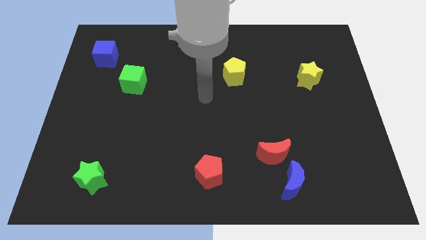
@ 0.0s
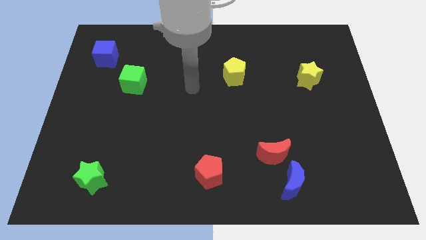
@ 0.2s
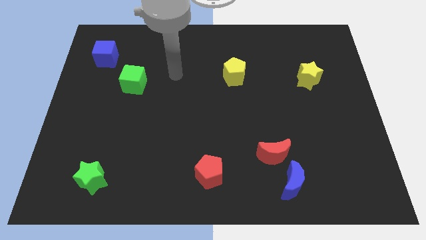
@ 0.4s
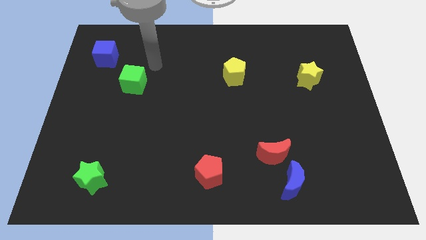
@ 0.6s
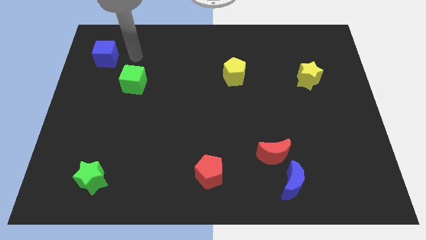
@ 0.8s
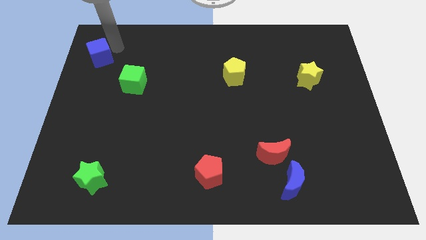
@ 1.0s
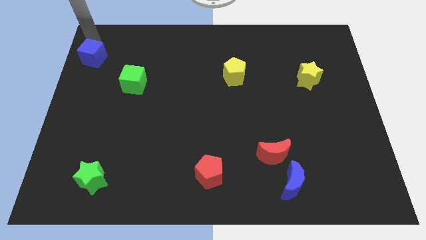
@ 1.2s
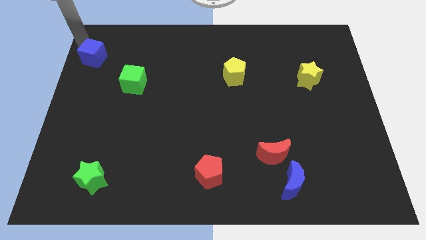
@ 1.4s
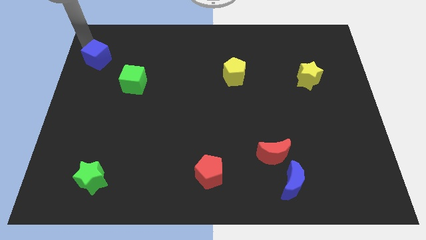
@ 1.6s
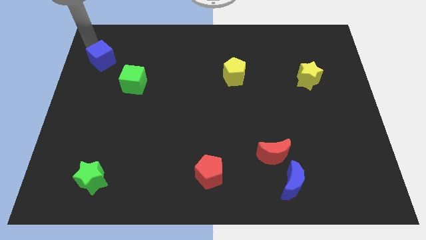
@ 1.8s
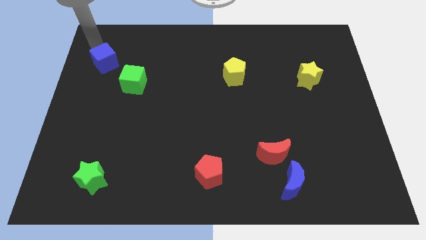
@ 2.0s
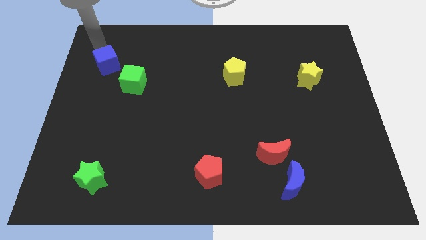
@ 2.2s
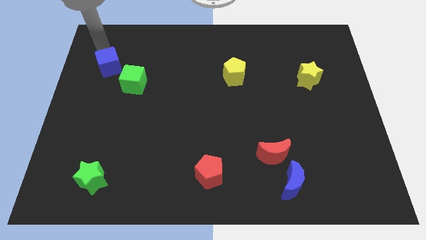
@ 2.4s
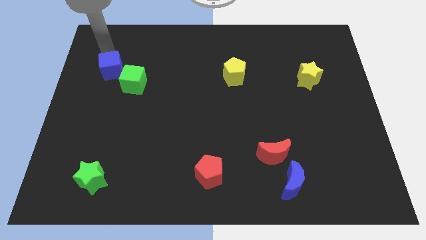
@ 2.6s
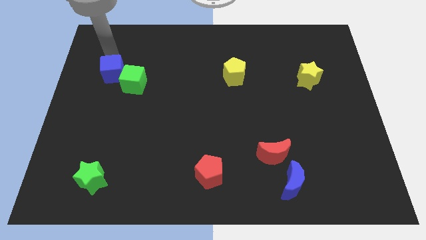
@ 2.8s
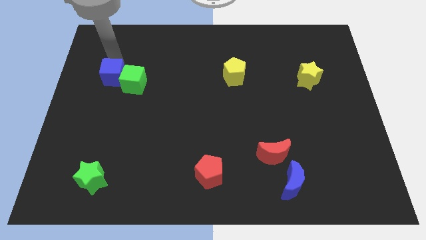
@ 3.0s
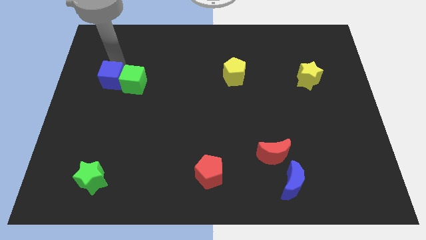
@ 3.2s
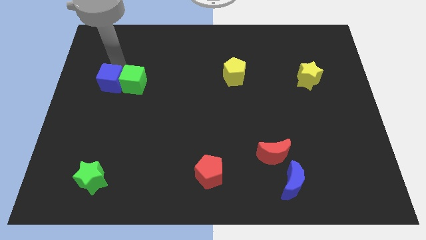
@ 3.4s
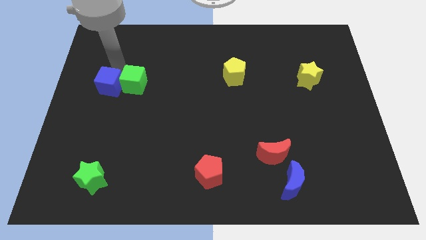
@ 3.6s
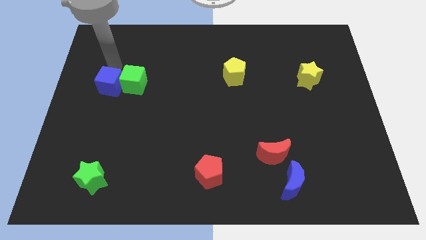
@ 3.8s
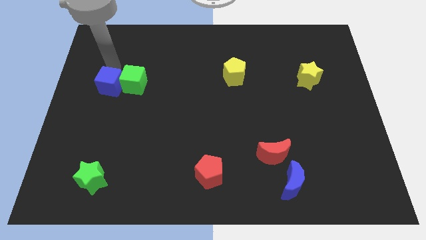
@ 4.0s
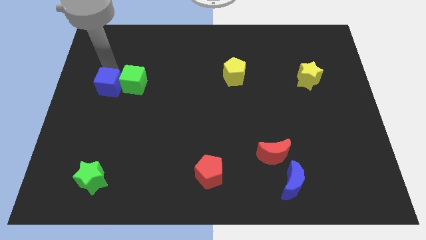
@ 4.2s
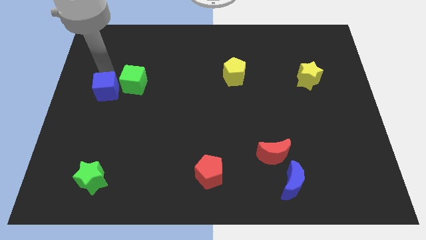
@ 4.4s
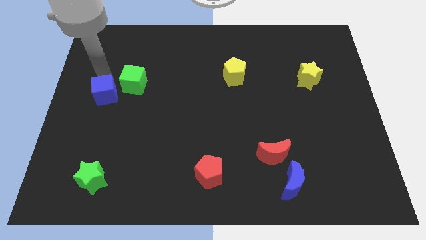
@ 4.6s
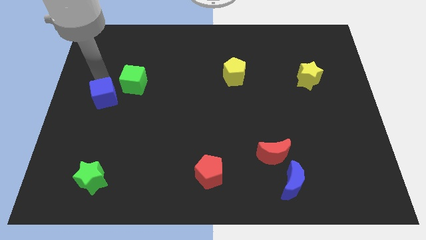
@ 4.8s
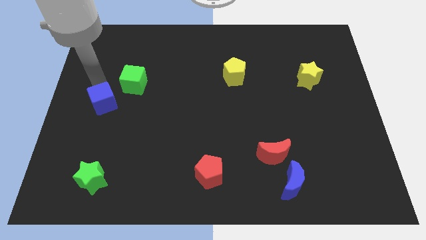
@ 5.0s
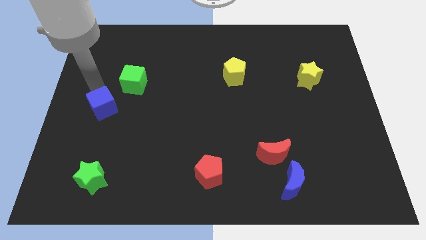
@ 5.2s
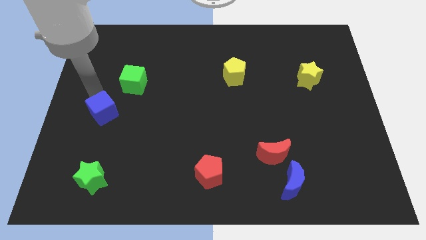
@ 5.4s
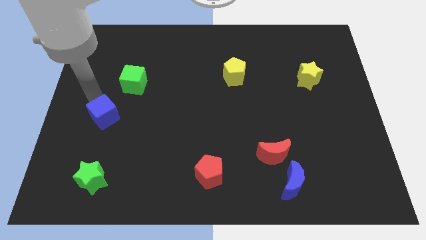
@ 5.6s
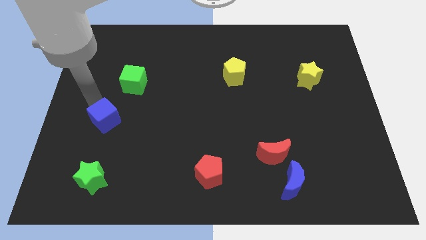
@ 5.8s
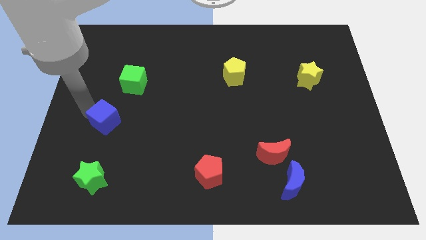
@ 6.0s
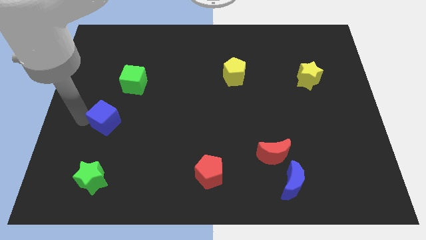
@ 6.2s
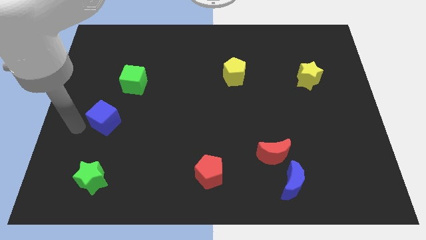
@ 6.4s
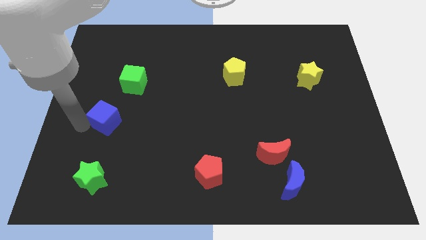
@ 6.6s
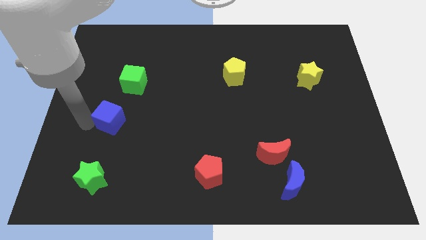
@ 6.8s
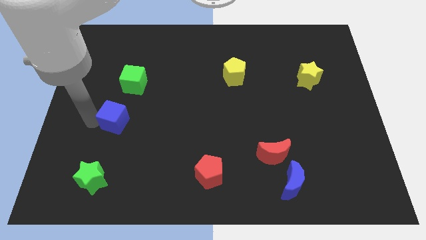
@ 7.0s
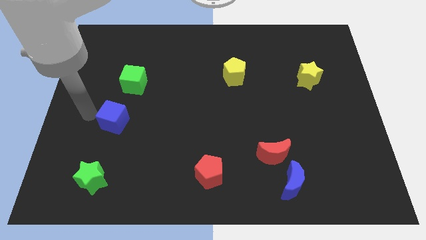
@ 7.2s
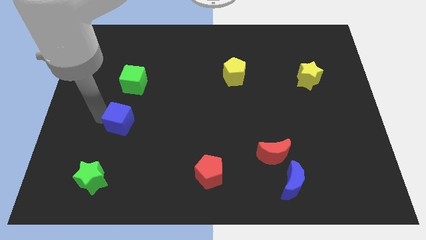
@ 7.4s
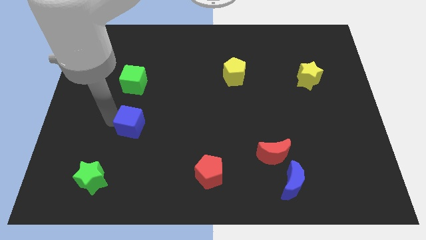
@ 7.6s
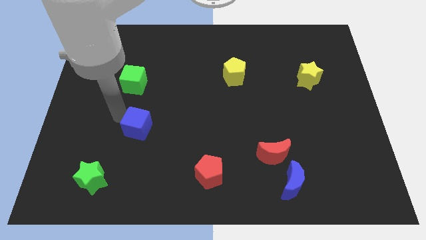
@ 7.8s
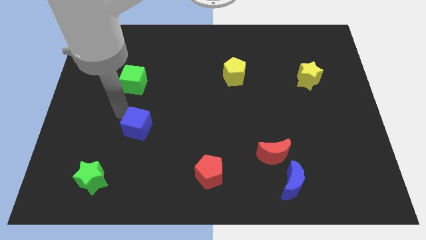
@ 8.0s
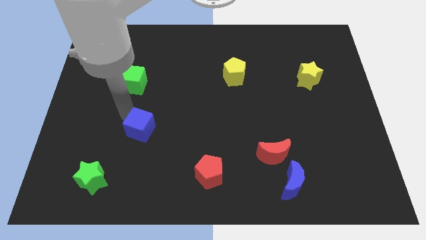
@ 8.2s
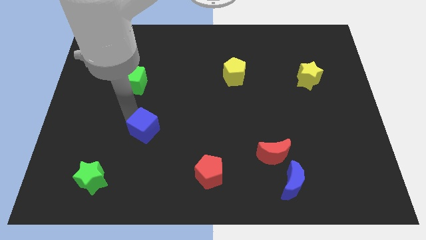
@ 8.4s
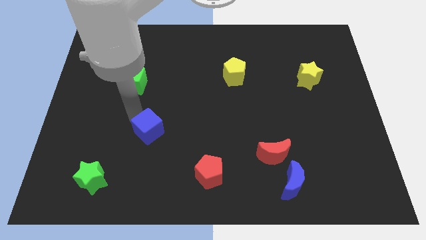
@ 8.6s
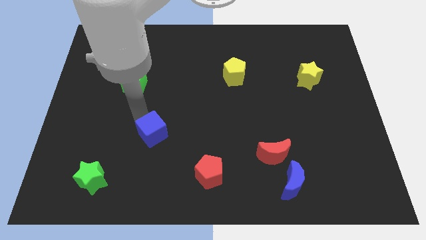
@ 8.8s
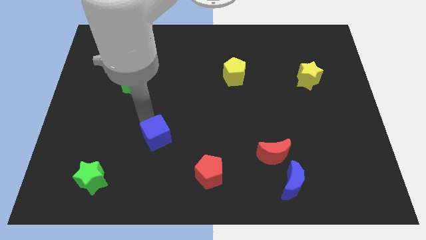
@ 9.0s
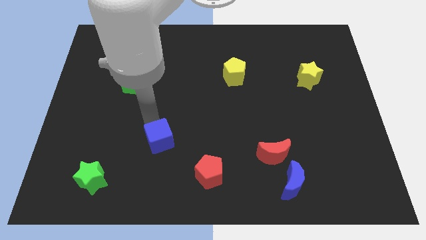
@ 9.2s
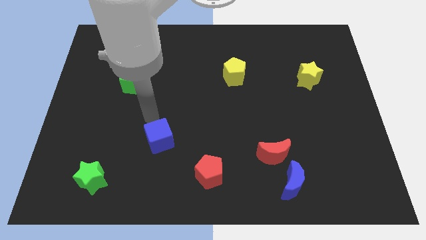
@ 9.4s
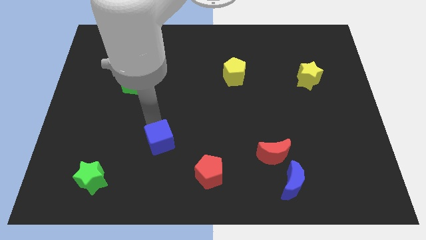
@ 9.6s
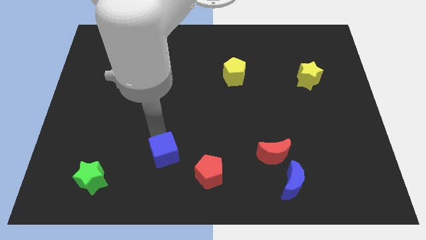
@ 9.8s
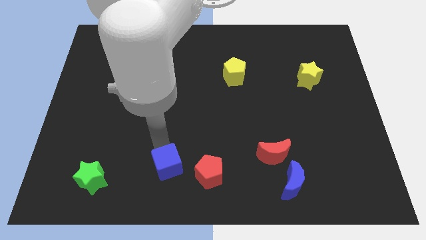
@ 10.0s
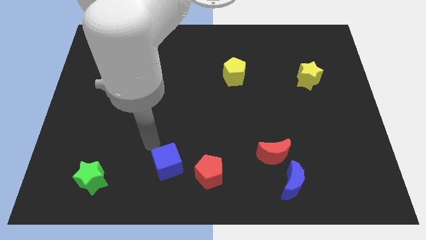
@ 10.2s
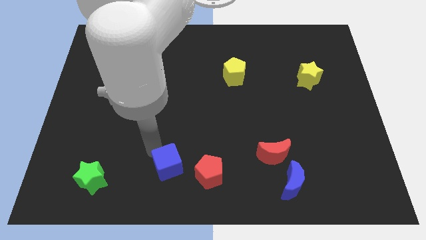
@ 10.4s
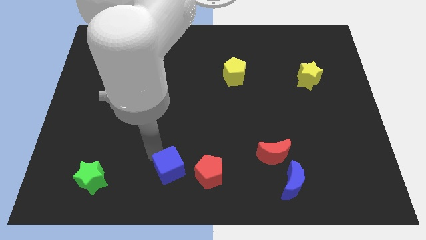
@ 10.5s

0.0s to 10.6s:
move the blue cube to the bottom side

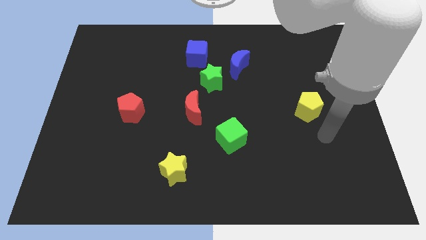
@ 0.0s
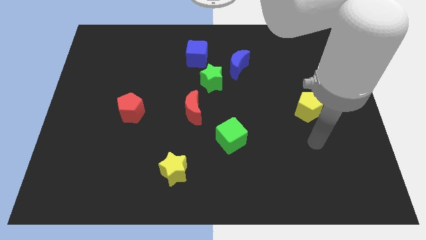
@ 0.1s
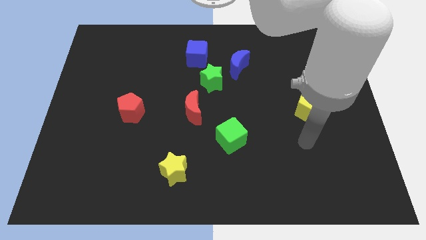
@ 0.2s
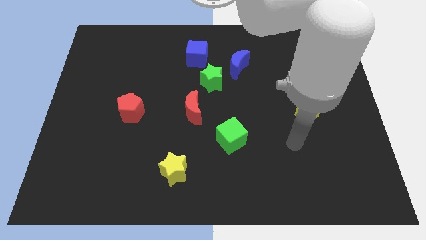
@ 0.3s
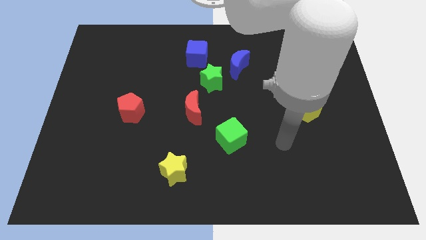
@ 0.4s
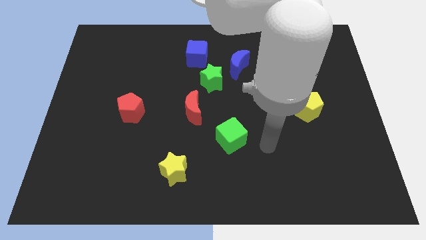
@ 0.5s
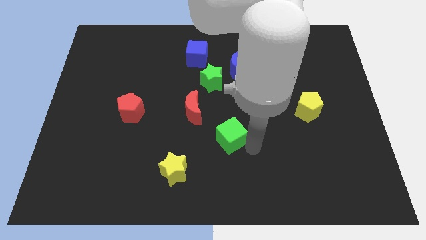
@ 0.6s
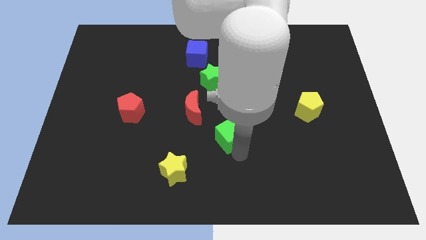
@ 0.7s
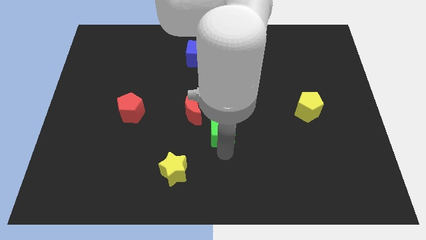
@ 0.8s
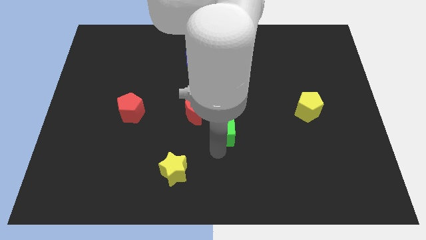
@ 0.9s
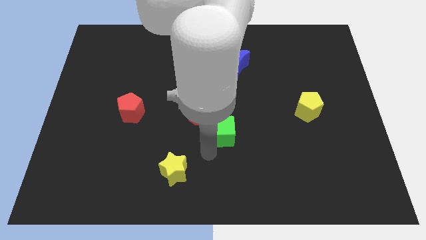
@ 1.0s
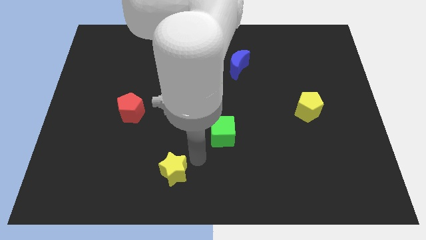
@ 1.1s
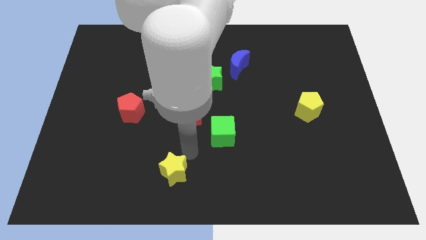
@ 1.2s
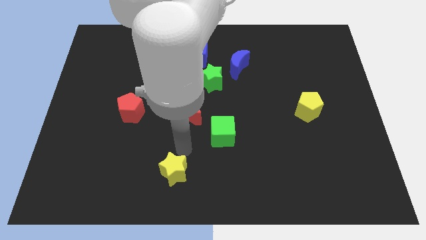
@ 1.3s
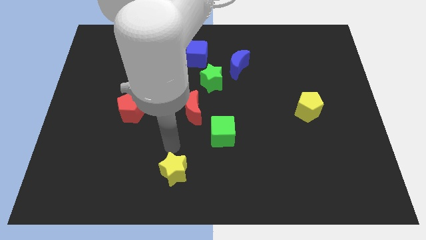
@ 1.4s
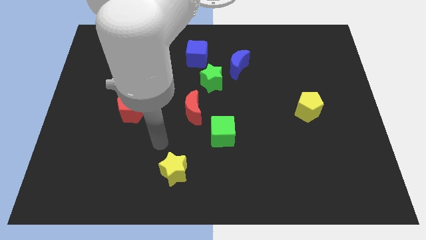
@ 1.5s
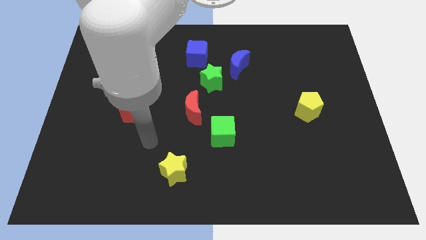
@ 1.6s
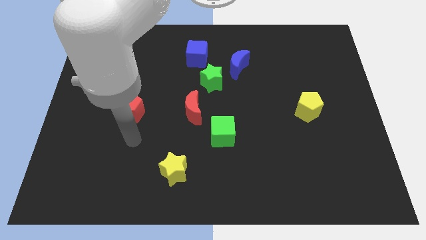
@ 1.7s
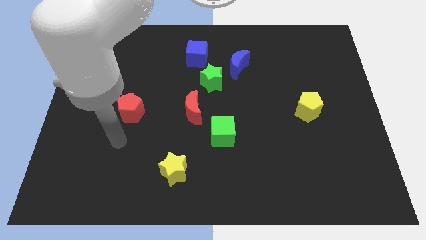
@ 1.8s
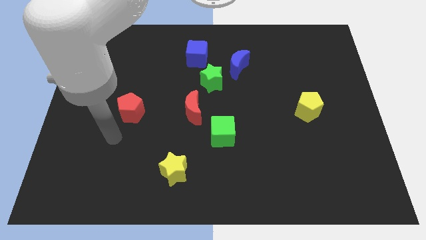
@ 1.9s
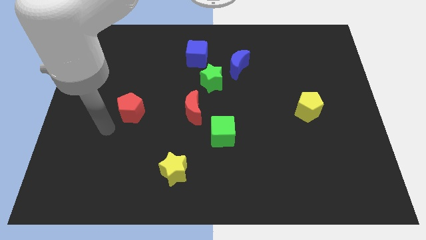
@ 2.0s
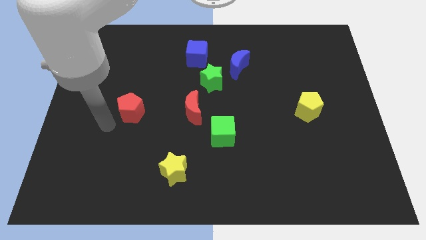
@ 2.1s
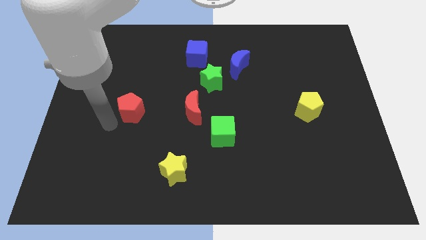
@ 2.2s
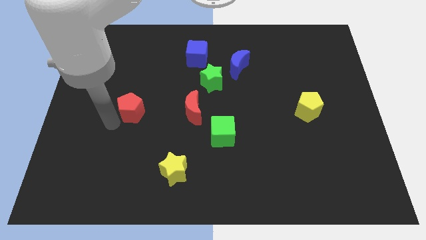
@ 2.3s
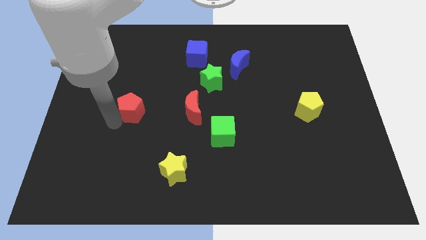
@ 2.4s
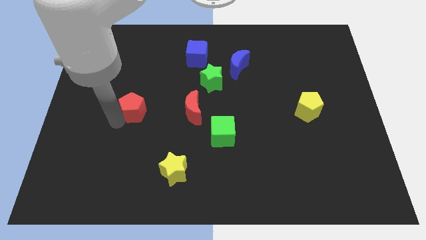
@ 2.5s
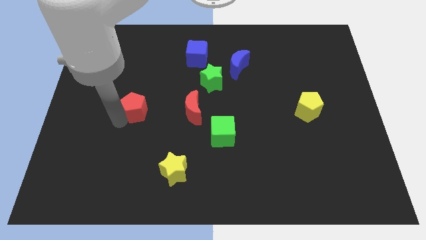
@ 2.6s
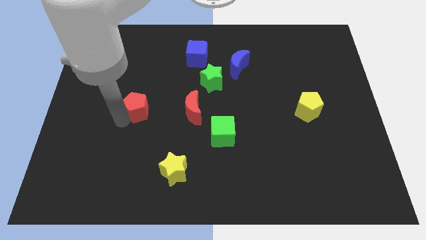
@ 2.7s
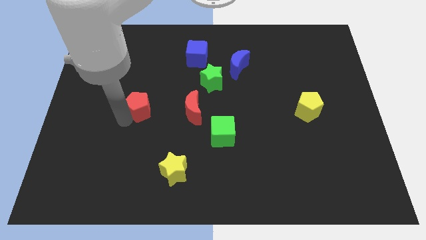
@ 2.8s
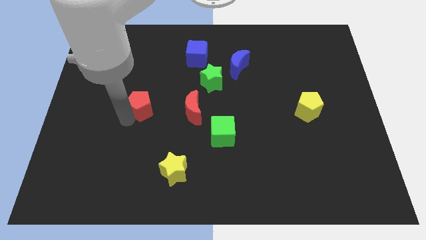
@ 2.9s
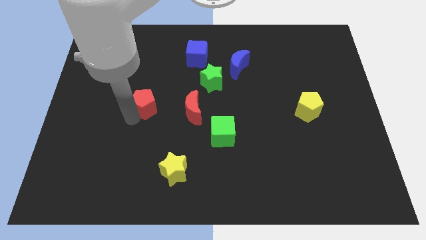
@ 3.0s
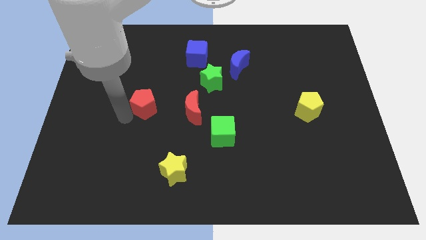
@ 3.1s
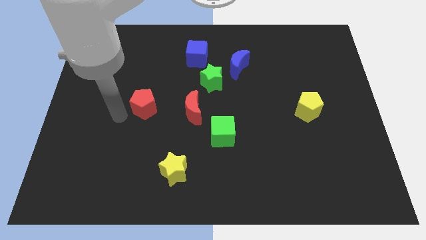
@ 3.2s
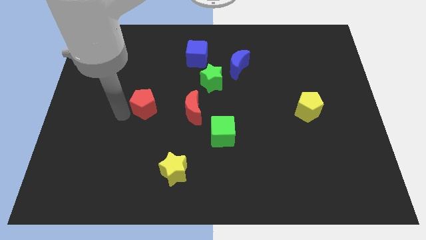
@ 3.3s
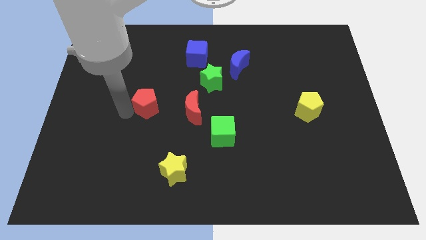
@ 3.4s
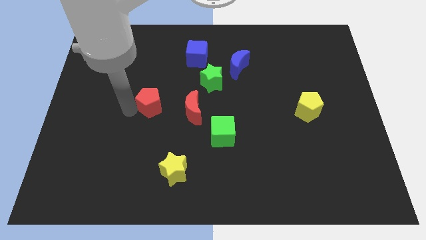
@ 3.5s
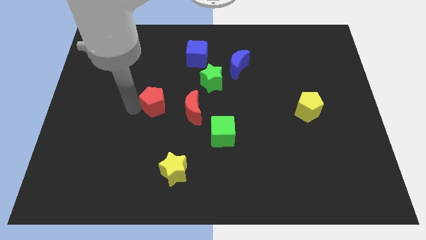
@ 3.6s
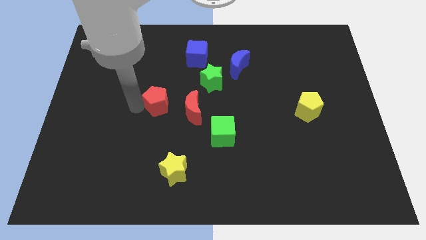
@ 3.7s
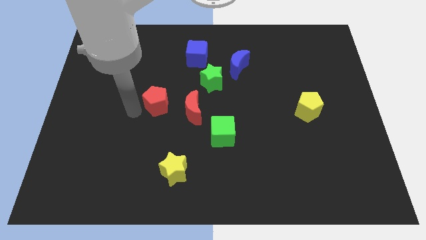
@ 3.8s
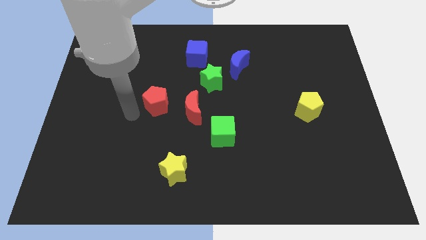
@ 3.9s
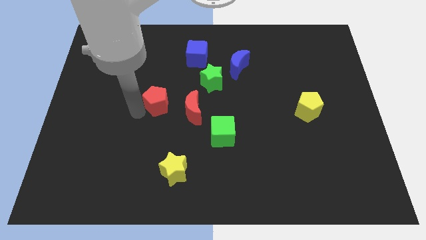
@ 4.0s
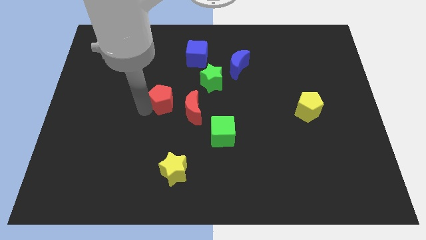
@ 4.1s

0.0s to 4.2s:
slide the red pentagon to the middle
